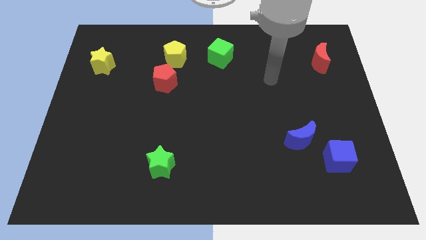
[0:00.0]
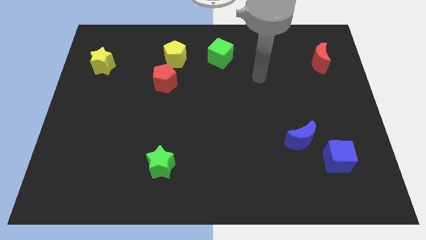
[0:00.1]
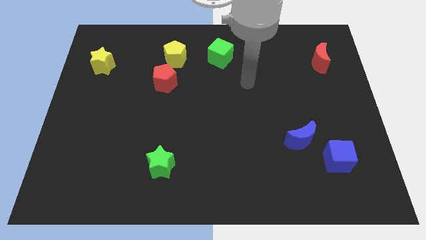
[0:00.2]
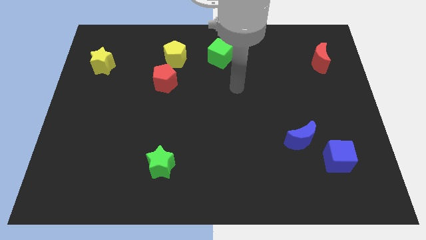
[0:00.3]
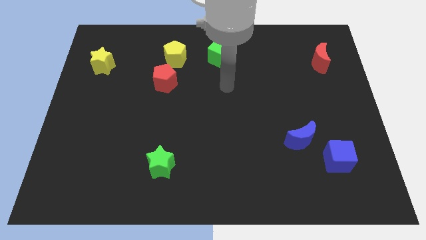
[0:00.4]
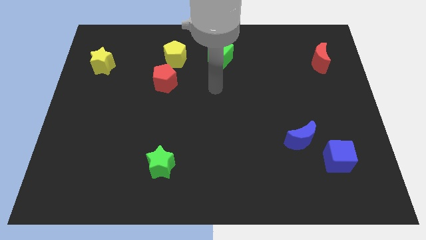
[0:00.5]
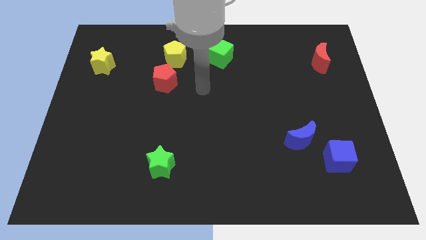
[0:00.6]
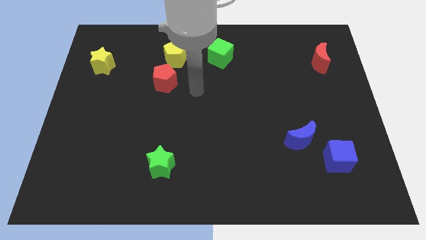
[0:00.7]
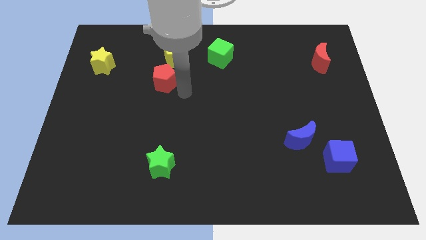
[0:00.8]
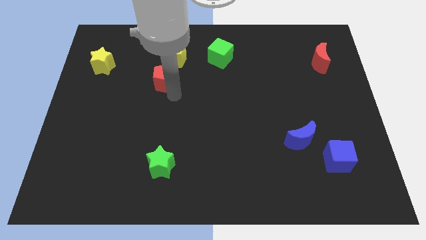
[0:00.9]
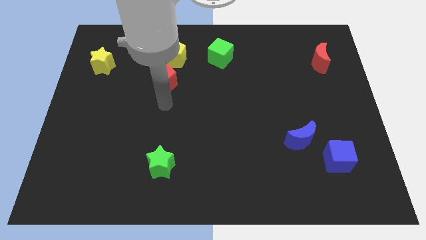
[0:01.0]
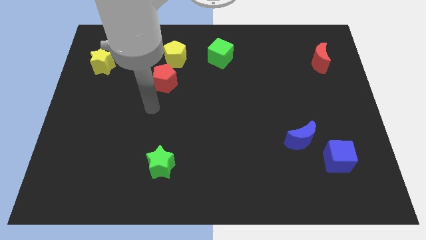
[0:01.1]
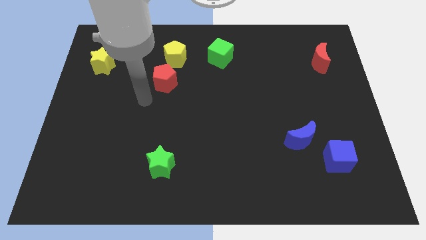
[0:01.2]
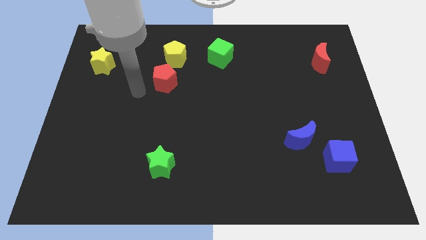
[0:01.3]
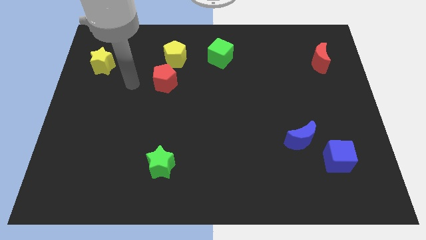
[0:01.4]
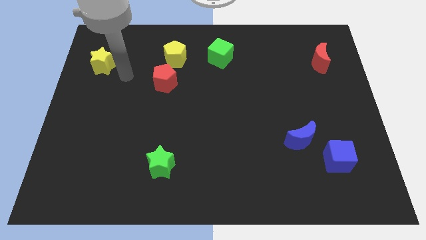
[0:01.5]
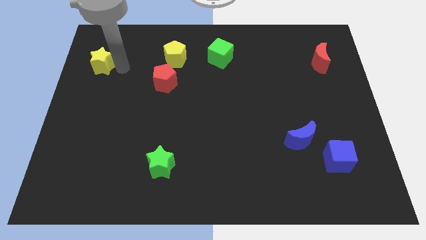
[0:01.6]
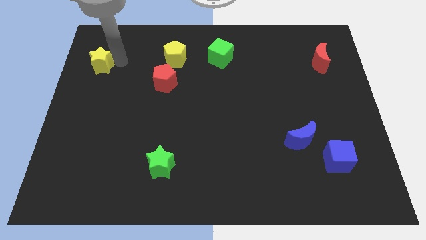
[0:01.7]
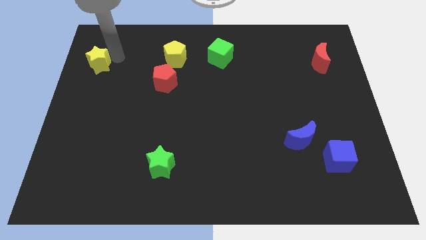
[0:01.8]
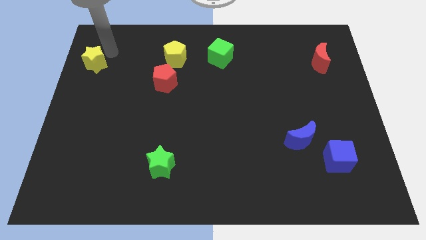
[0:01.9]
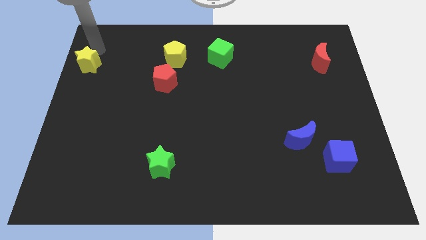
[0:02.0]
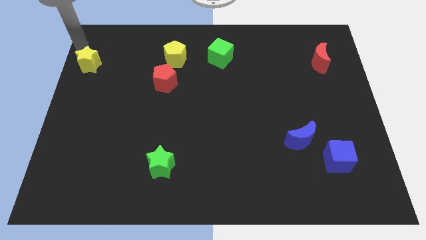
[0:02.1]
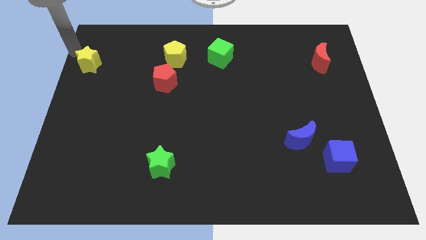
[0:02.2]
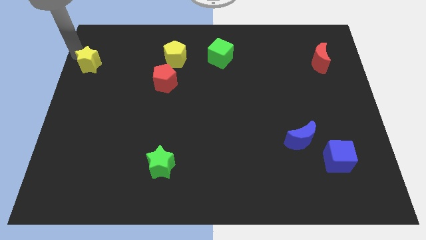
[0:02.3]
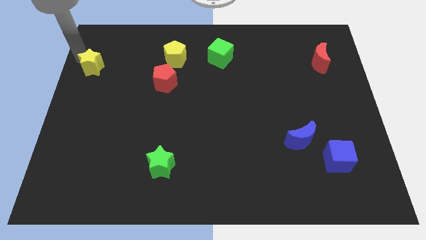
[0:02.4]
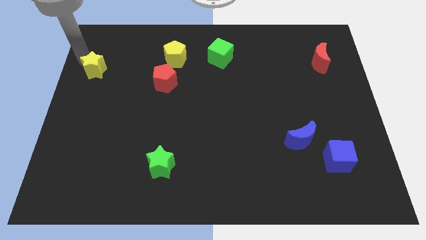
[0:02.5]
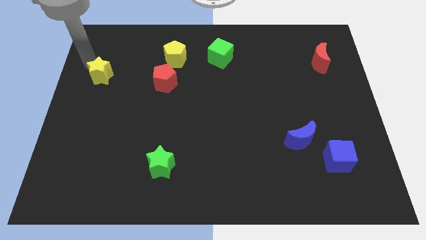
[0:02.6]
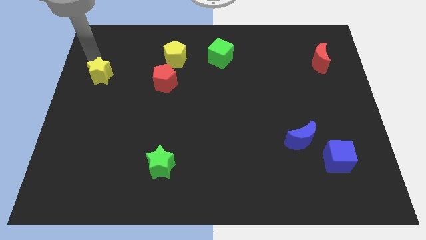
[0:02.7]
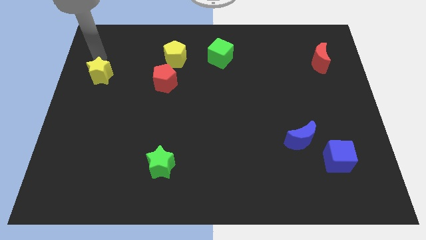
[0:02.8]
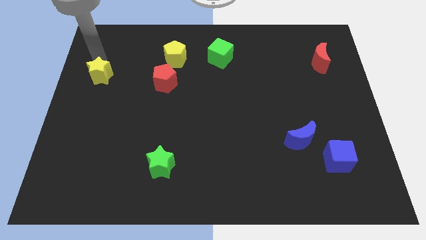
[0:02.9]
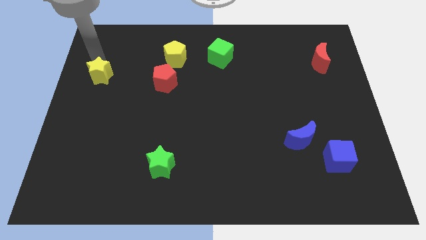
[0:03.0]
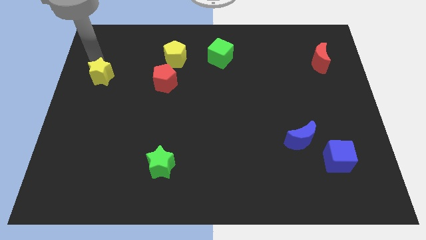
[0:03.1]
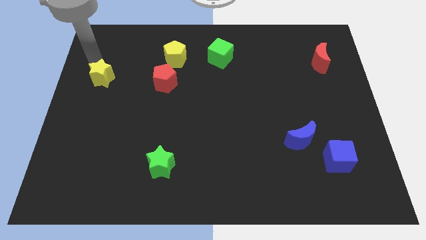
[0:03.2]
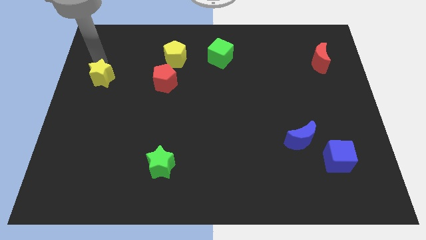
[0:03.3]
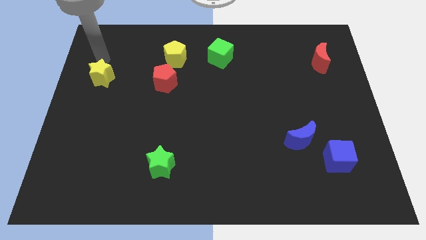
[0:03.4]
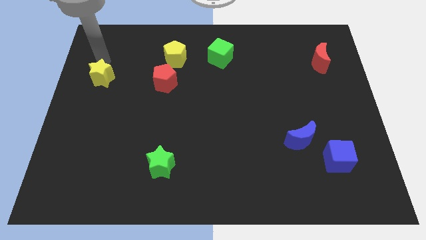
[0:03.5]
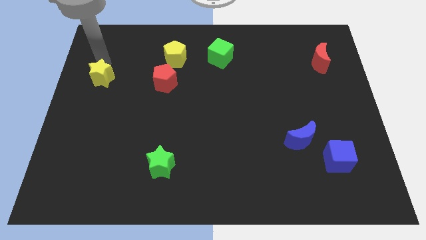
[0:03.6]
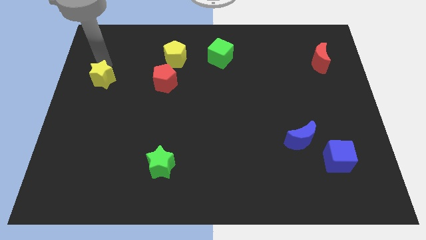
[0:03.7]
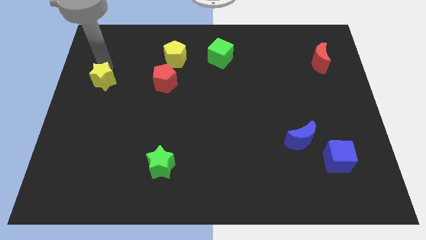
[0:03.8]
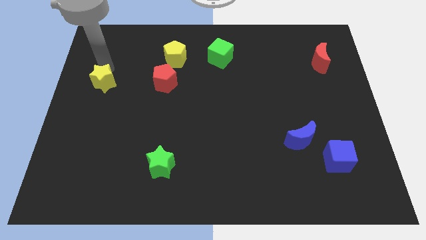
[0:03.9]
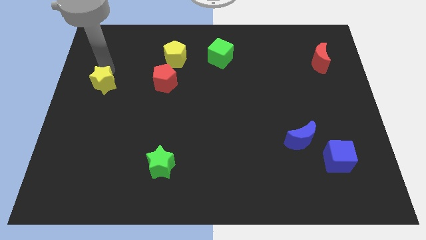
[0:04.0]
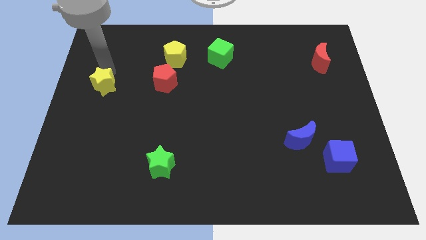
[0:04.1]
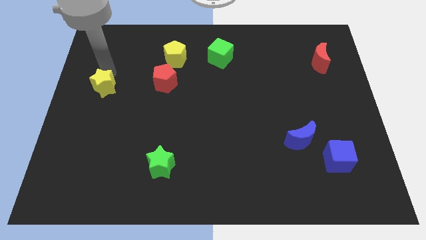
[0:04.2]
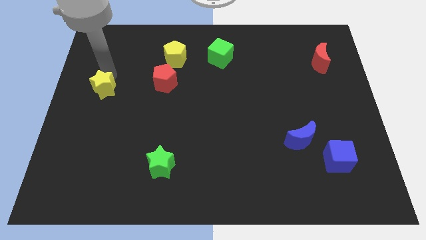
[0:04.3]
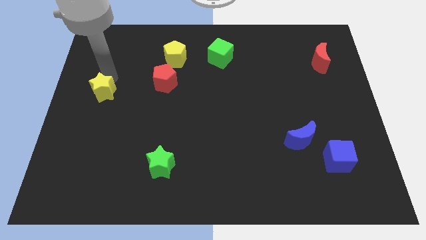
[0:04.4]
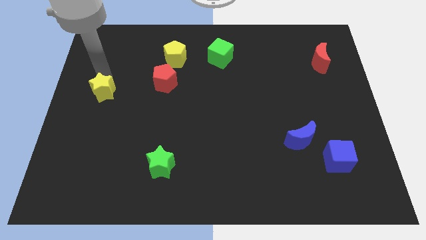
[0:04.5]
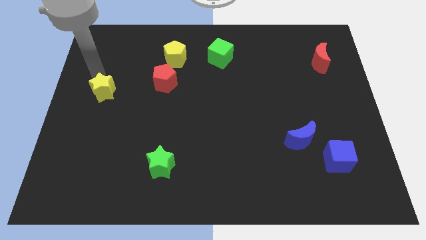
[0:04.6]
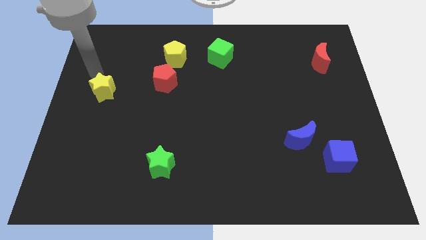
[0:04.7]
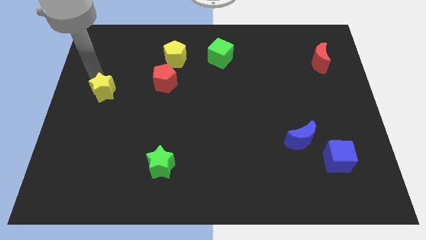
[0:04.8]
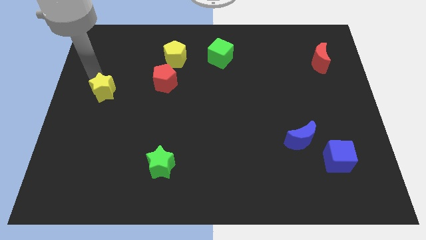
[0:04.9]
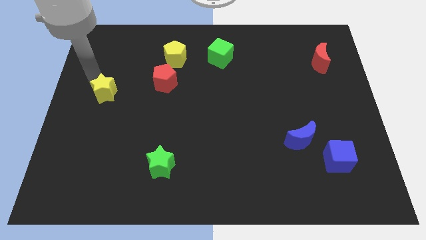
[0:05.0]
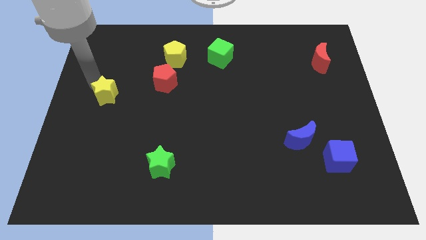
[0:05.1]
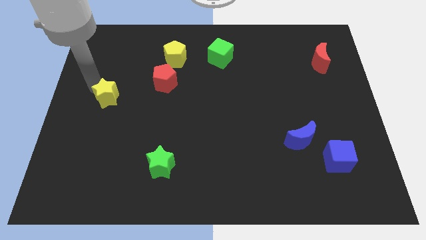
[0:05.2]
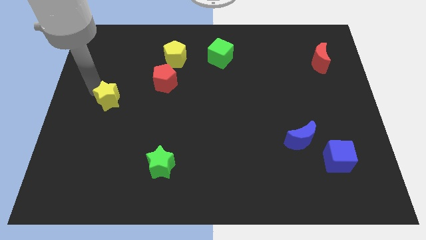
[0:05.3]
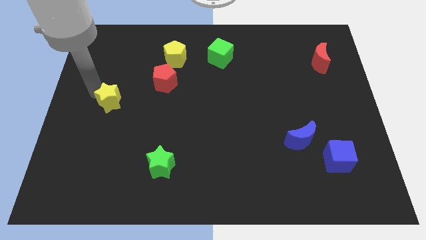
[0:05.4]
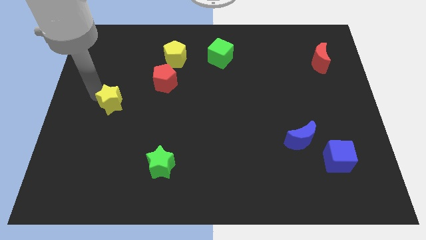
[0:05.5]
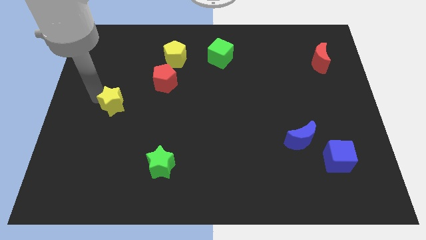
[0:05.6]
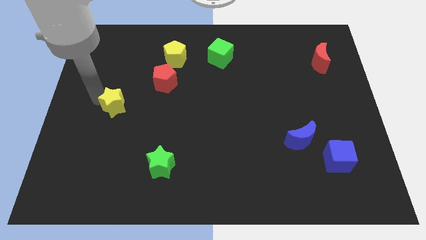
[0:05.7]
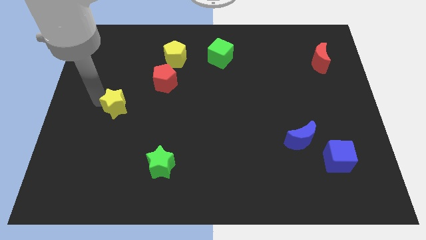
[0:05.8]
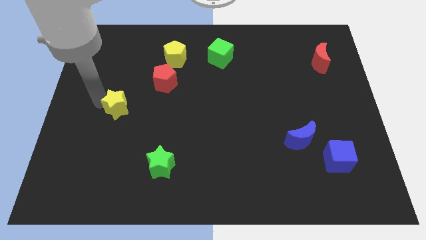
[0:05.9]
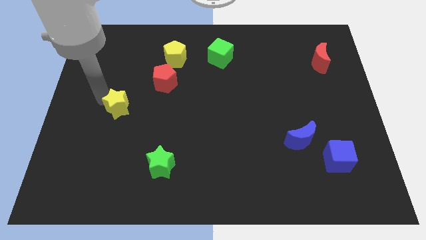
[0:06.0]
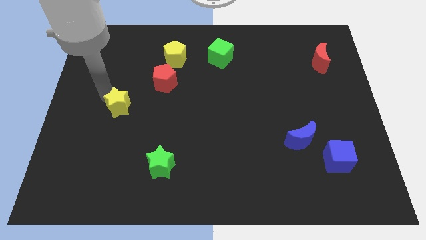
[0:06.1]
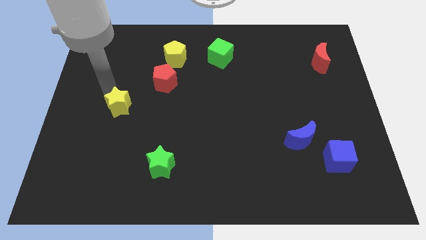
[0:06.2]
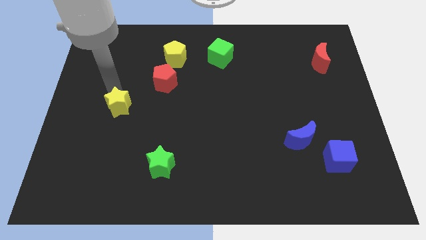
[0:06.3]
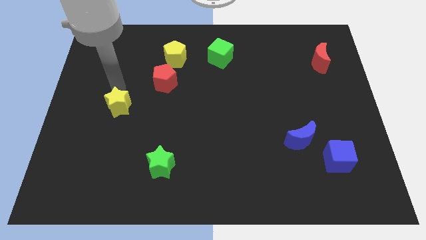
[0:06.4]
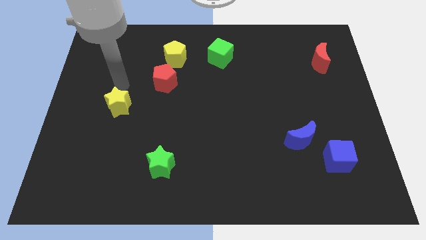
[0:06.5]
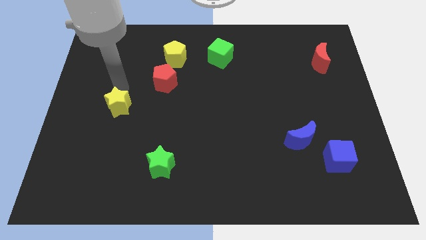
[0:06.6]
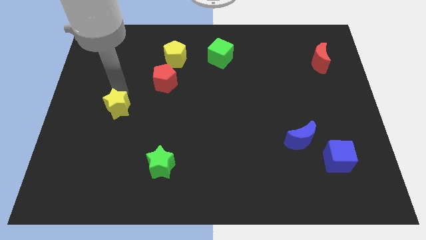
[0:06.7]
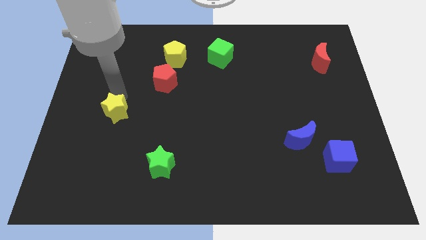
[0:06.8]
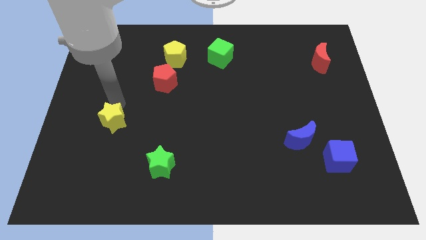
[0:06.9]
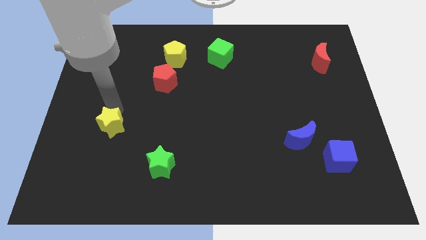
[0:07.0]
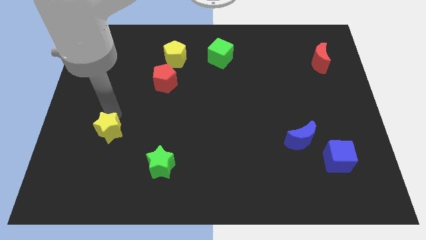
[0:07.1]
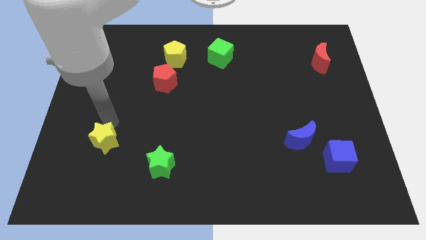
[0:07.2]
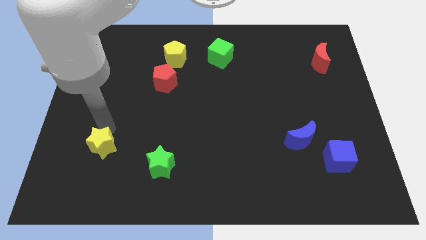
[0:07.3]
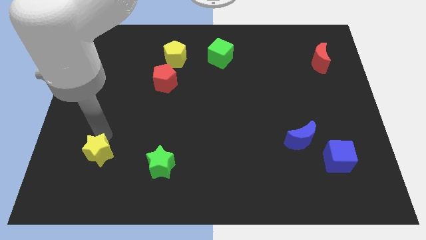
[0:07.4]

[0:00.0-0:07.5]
slide the yellow star to the left side of the green star

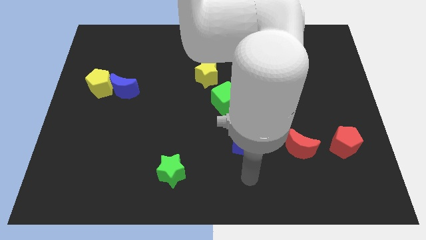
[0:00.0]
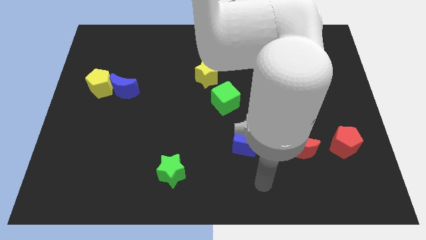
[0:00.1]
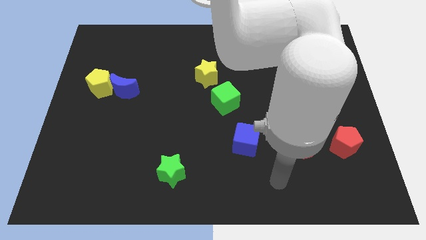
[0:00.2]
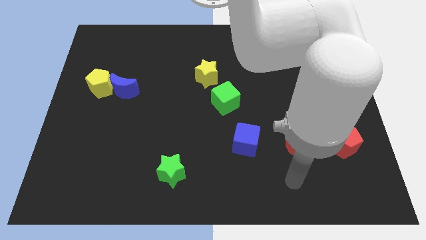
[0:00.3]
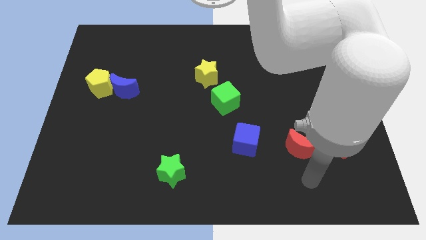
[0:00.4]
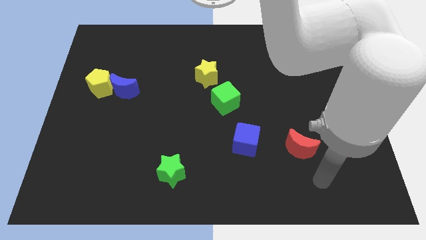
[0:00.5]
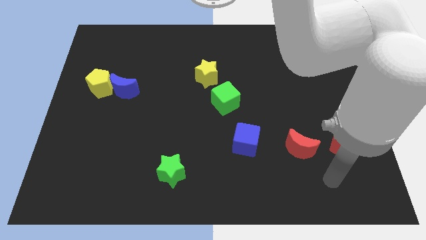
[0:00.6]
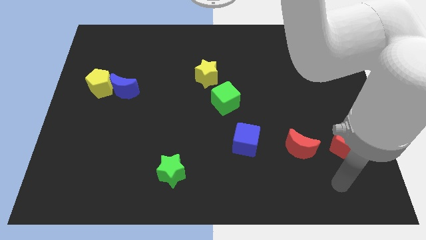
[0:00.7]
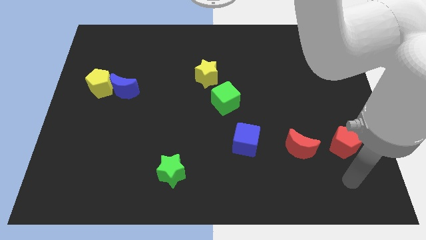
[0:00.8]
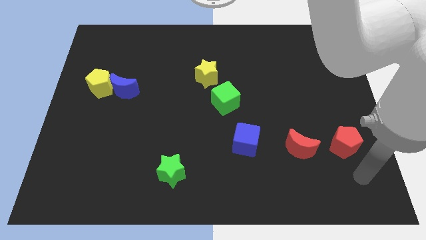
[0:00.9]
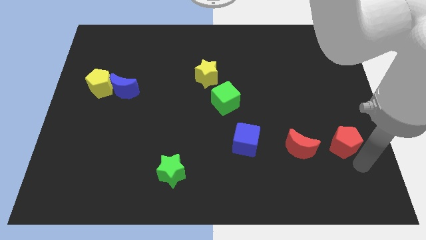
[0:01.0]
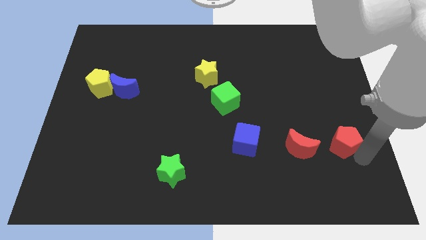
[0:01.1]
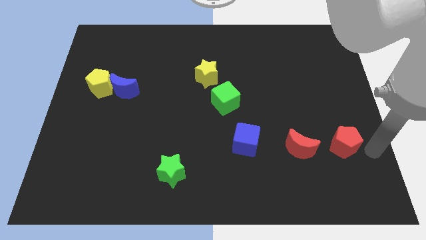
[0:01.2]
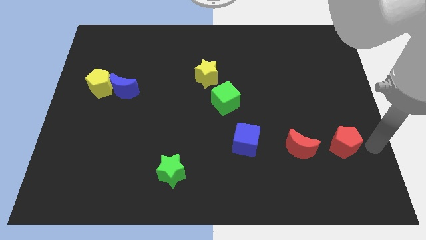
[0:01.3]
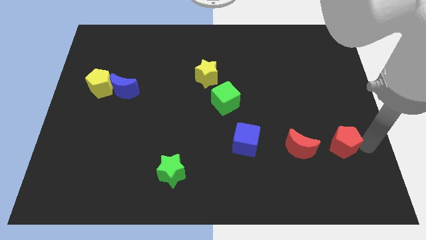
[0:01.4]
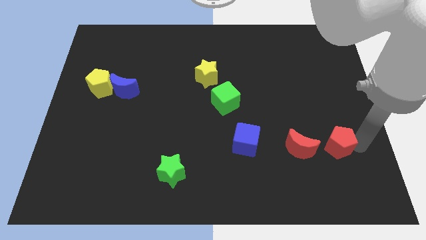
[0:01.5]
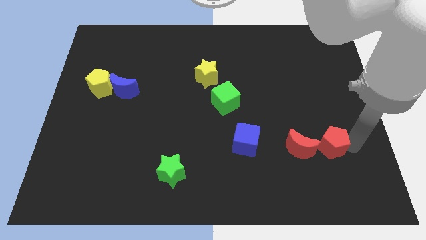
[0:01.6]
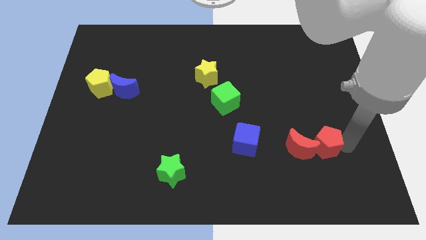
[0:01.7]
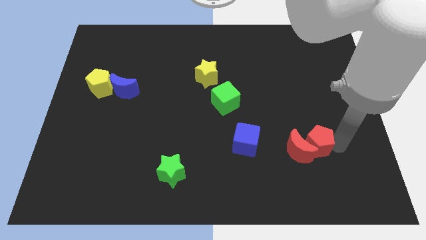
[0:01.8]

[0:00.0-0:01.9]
put the red pentagon to the right side of the blue cube
